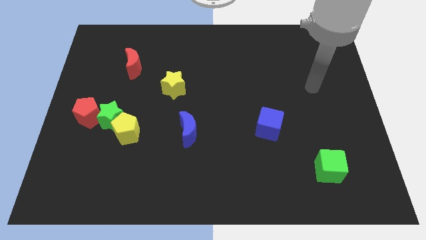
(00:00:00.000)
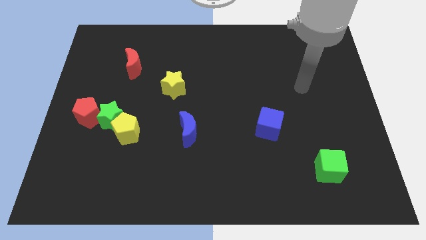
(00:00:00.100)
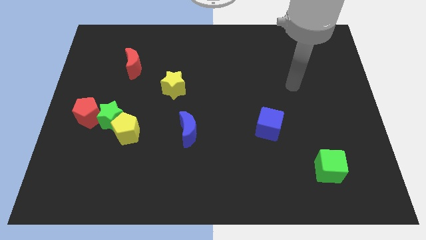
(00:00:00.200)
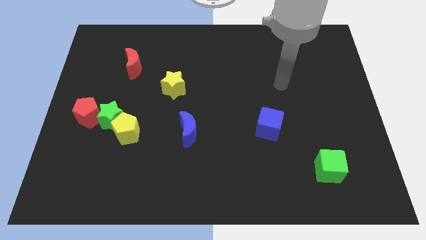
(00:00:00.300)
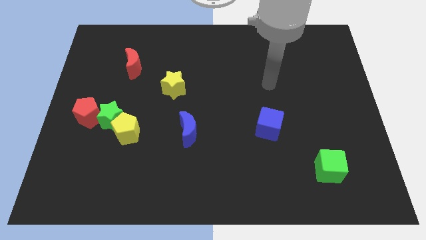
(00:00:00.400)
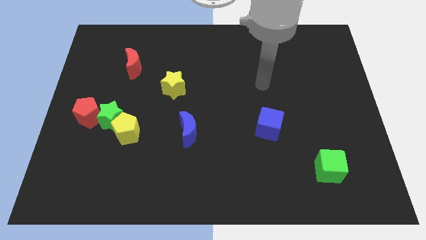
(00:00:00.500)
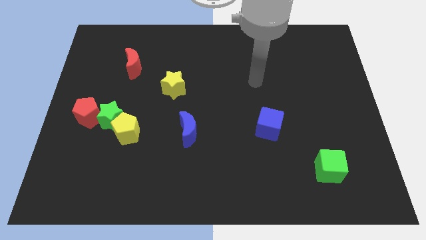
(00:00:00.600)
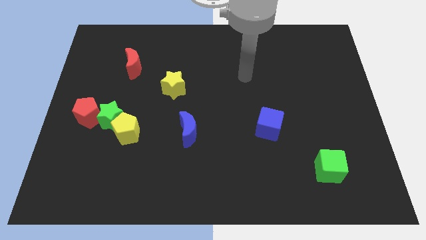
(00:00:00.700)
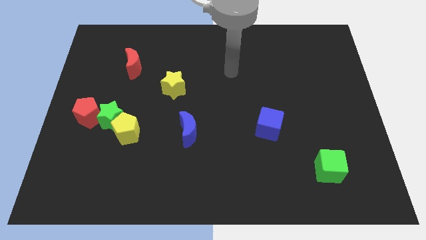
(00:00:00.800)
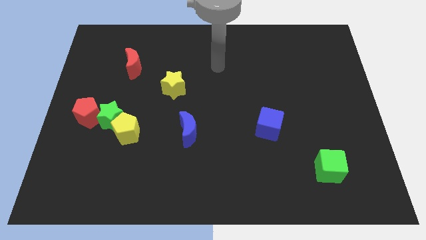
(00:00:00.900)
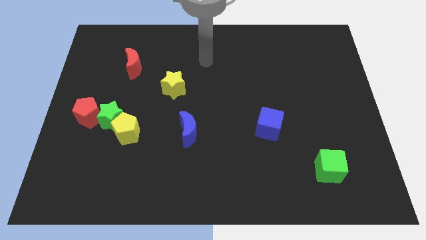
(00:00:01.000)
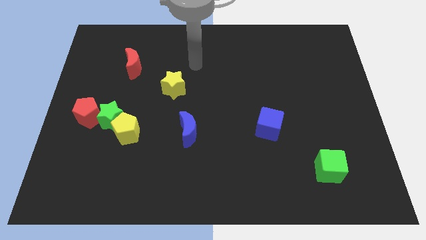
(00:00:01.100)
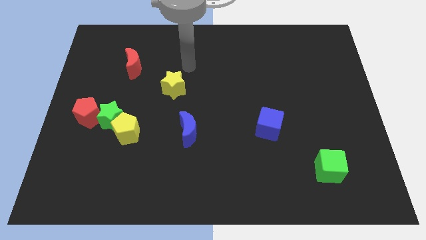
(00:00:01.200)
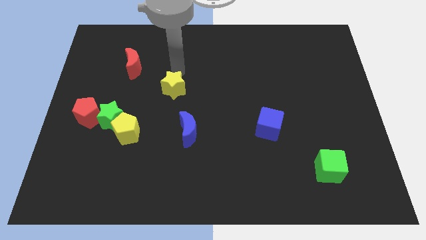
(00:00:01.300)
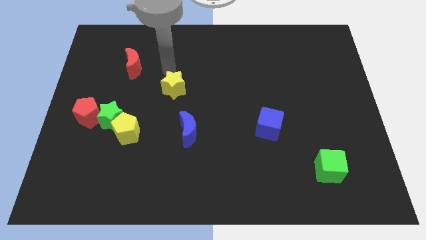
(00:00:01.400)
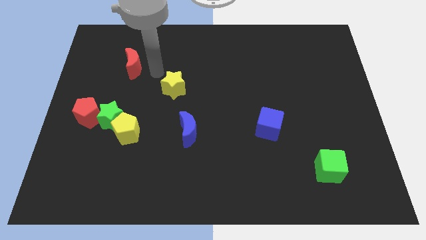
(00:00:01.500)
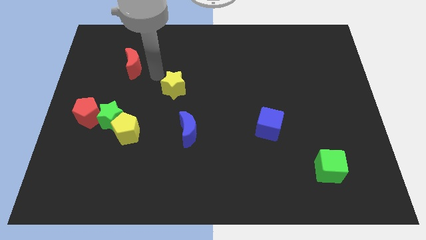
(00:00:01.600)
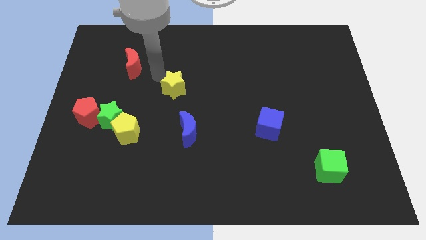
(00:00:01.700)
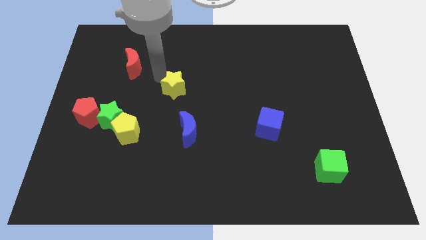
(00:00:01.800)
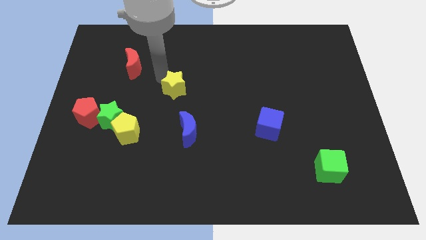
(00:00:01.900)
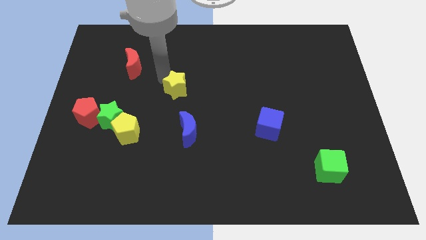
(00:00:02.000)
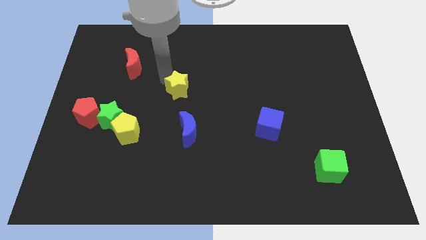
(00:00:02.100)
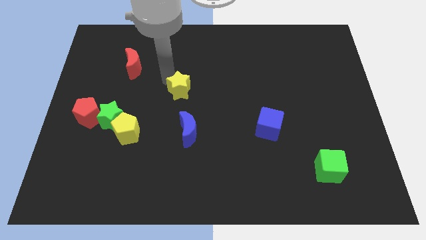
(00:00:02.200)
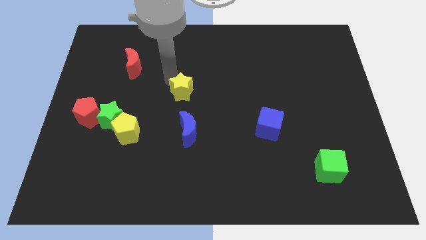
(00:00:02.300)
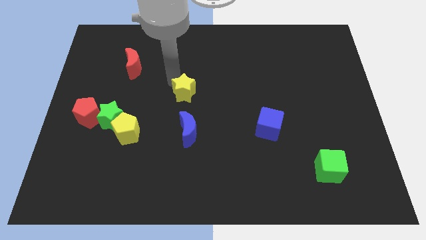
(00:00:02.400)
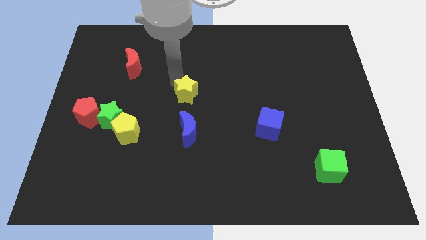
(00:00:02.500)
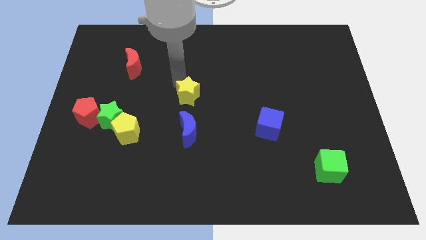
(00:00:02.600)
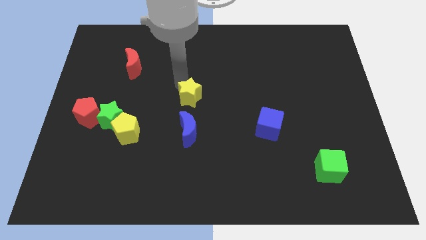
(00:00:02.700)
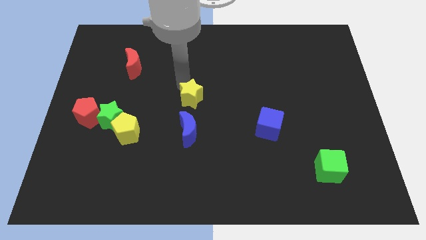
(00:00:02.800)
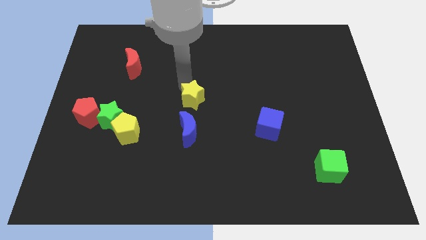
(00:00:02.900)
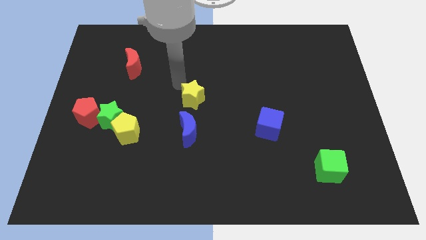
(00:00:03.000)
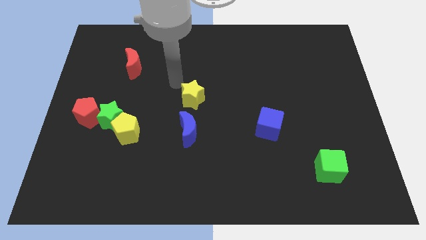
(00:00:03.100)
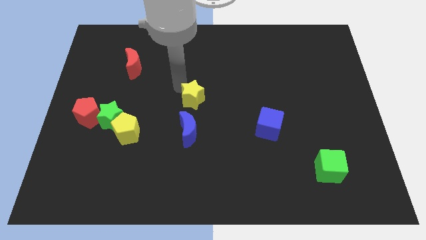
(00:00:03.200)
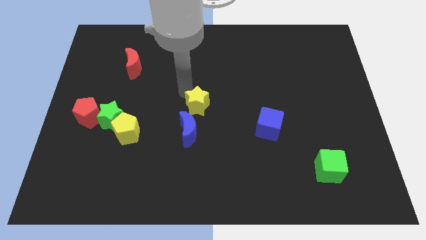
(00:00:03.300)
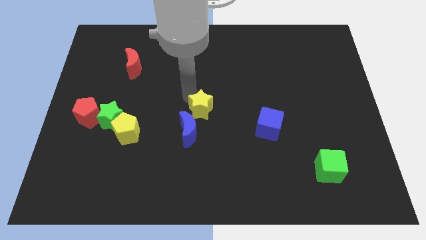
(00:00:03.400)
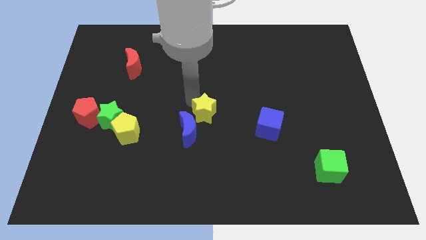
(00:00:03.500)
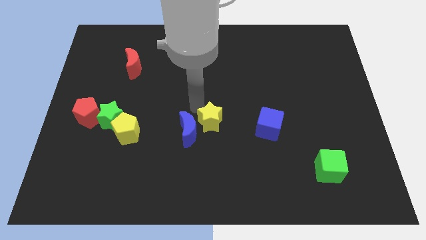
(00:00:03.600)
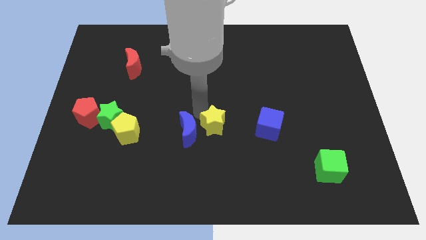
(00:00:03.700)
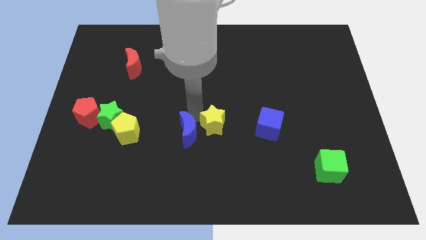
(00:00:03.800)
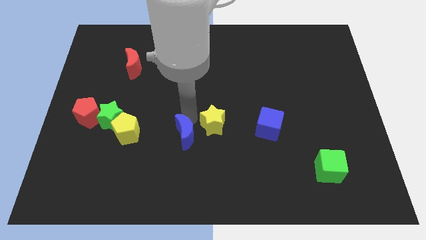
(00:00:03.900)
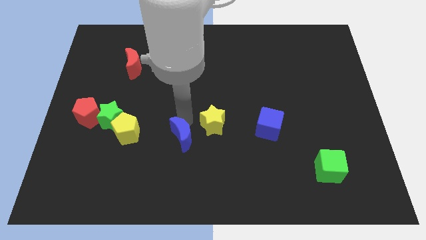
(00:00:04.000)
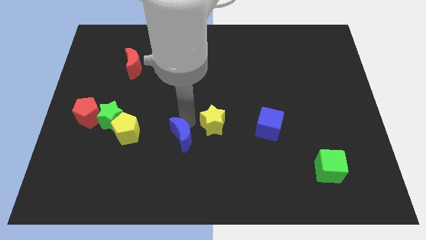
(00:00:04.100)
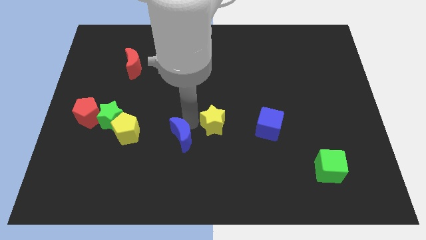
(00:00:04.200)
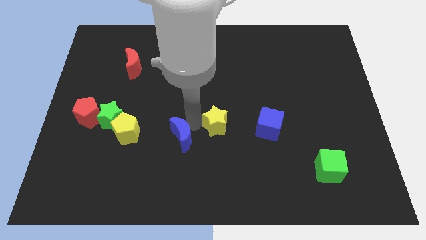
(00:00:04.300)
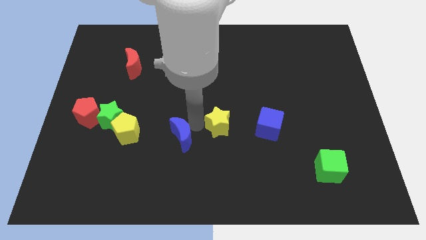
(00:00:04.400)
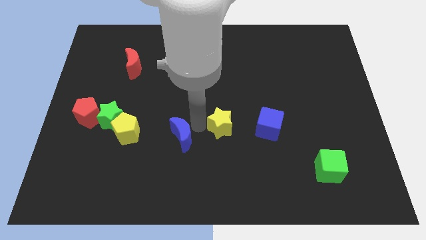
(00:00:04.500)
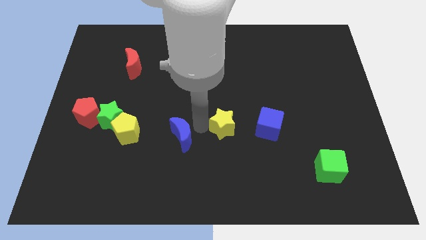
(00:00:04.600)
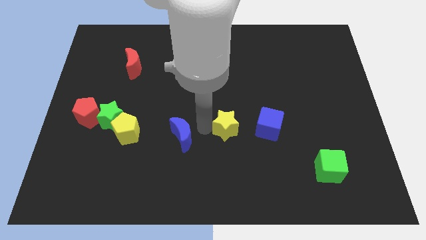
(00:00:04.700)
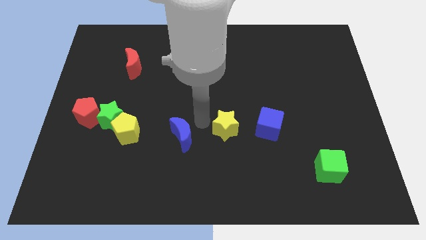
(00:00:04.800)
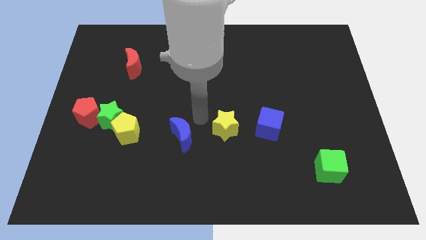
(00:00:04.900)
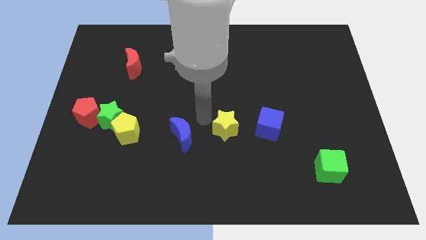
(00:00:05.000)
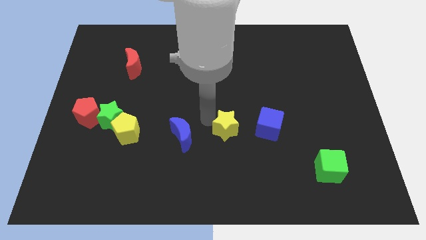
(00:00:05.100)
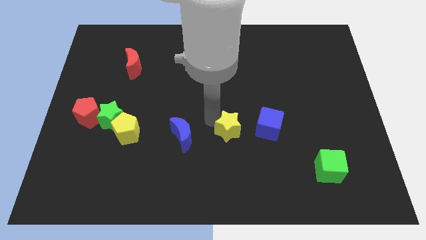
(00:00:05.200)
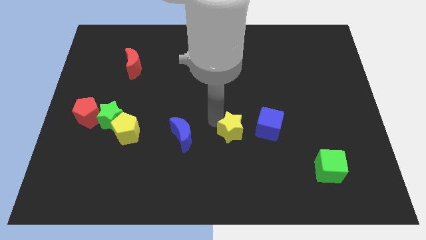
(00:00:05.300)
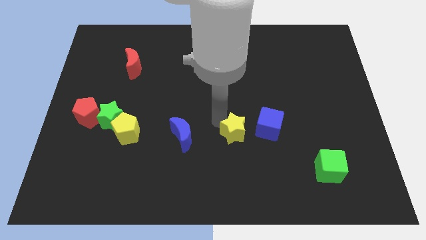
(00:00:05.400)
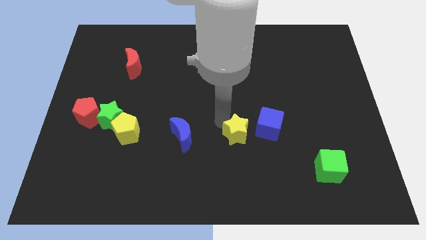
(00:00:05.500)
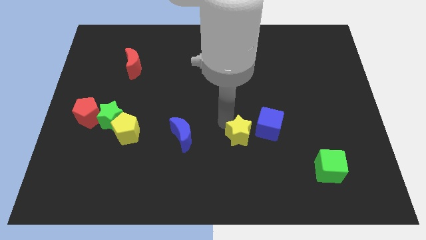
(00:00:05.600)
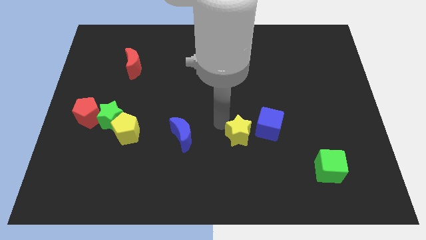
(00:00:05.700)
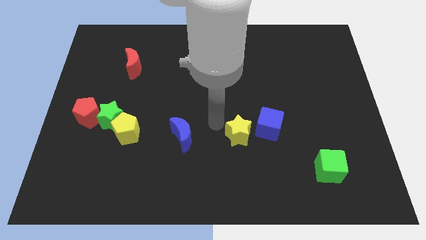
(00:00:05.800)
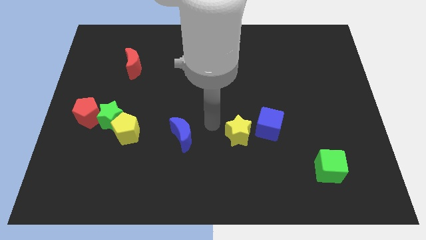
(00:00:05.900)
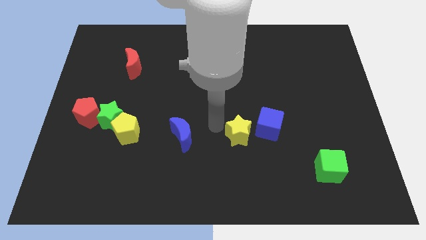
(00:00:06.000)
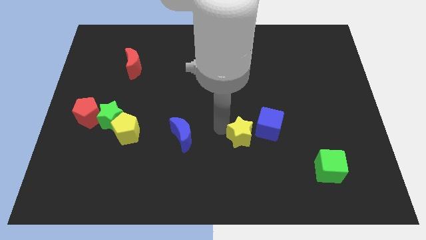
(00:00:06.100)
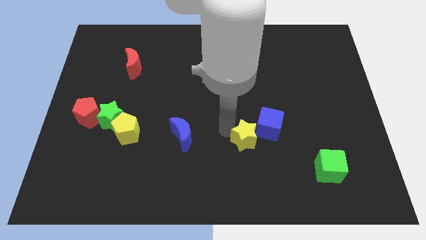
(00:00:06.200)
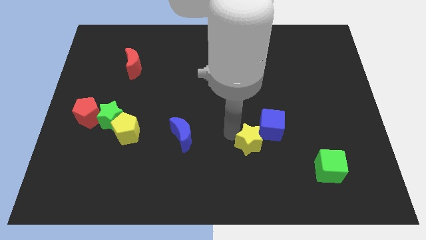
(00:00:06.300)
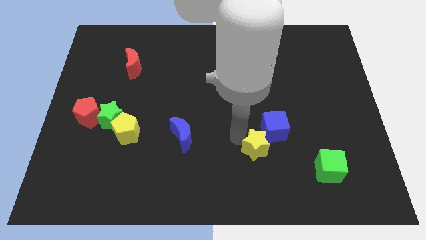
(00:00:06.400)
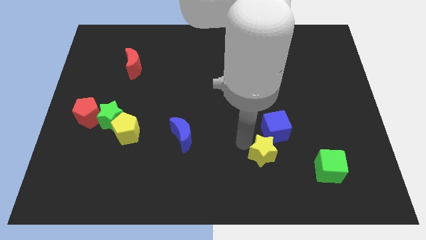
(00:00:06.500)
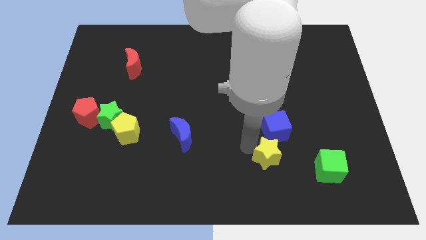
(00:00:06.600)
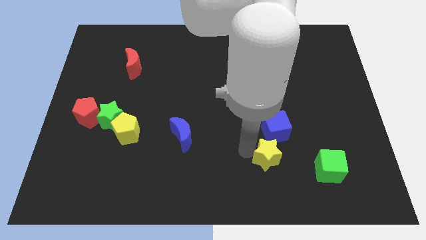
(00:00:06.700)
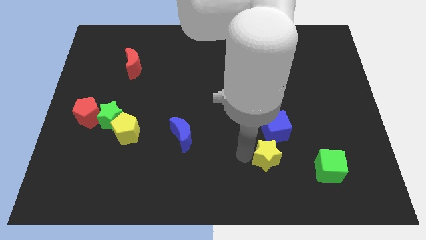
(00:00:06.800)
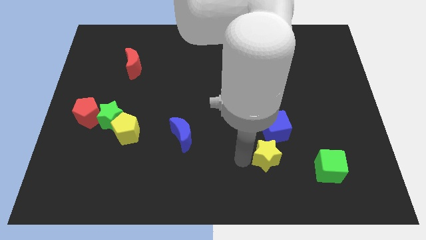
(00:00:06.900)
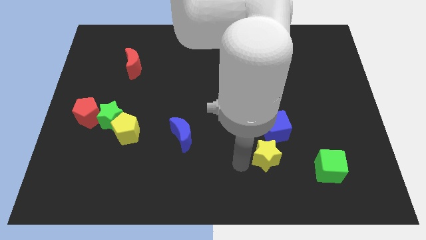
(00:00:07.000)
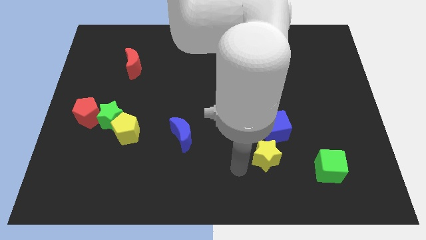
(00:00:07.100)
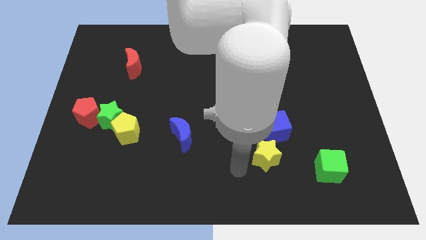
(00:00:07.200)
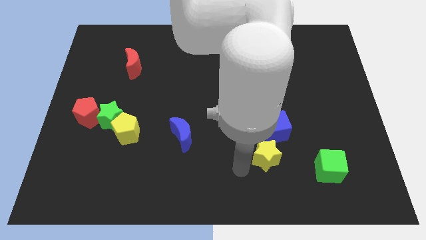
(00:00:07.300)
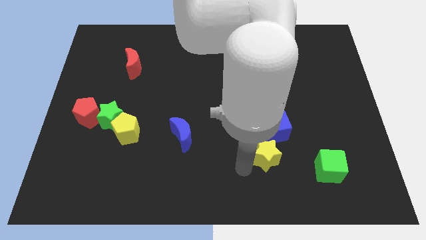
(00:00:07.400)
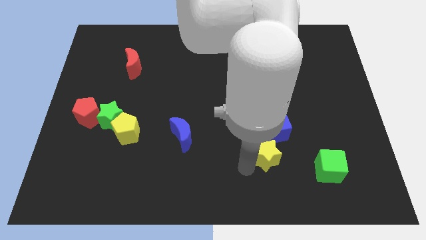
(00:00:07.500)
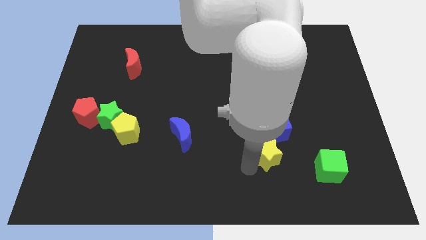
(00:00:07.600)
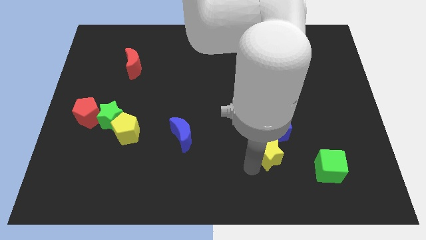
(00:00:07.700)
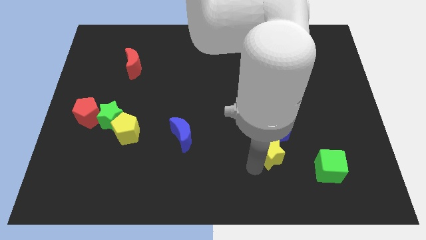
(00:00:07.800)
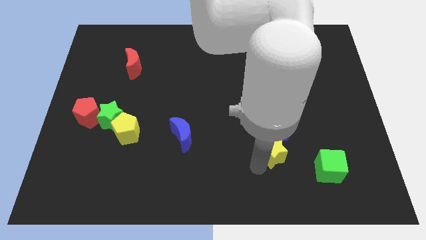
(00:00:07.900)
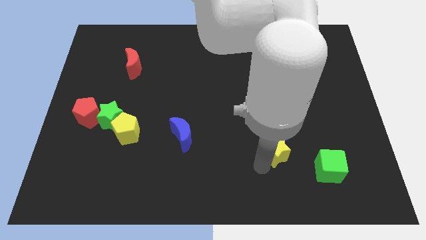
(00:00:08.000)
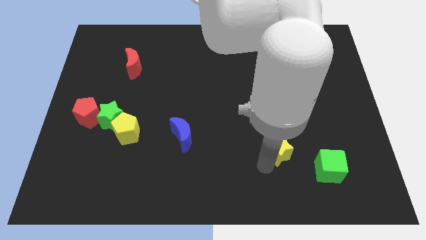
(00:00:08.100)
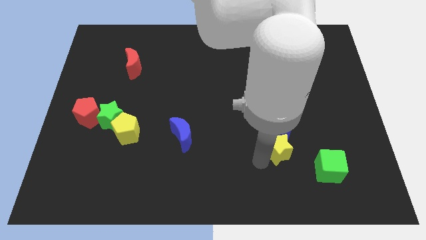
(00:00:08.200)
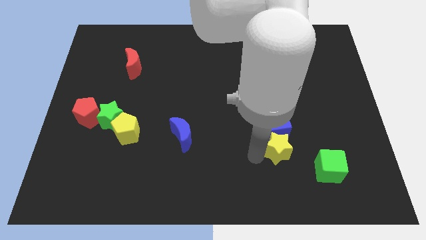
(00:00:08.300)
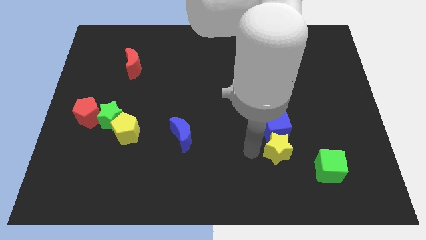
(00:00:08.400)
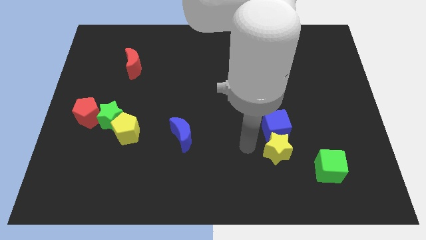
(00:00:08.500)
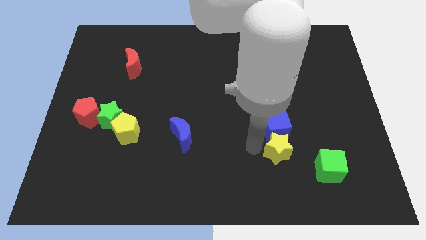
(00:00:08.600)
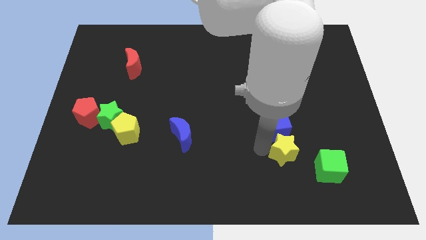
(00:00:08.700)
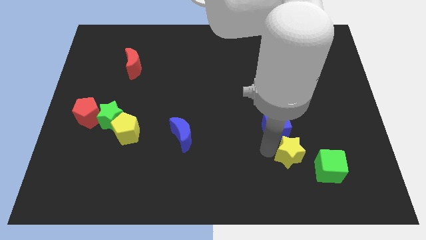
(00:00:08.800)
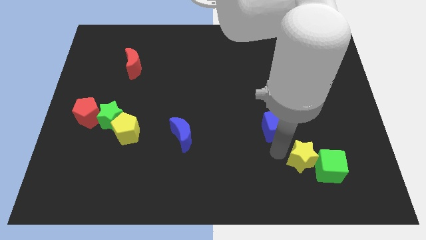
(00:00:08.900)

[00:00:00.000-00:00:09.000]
slide the yellow star next to the green cube
